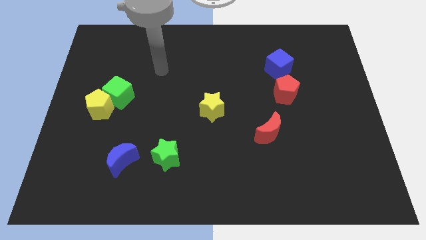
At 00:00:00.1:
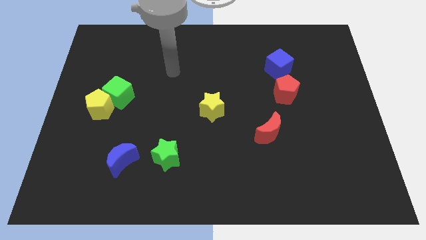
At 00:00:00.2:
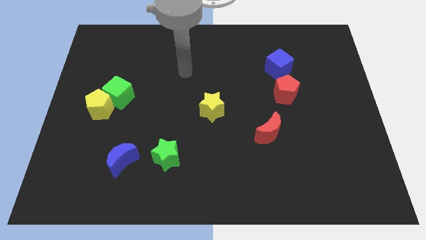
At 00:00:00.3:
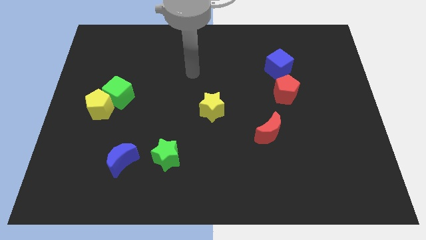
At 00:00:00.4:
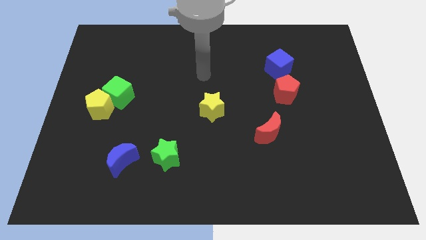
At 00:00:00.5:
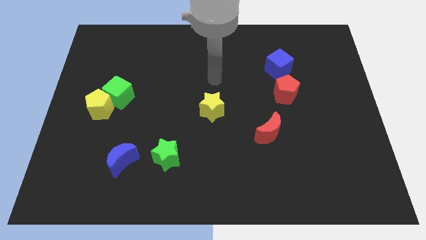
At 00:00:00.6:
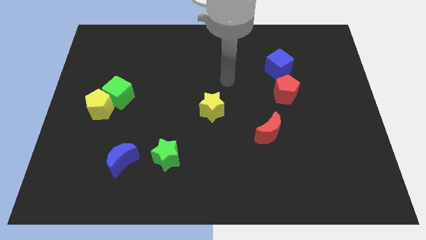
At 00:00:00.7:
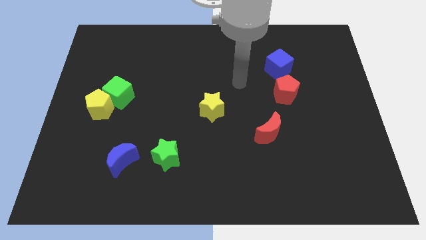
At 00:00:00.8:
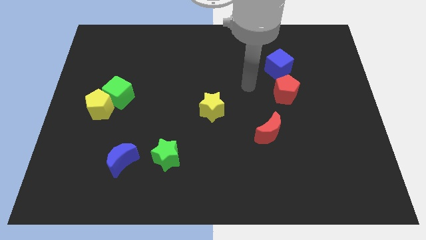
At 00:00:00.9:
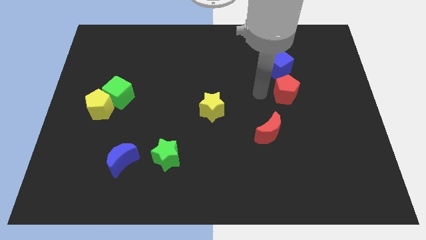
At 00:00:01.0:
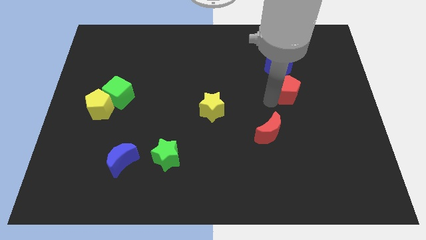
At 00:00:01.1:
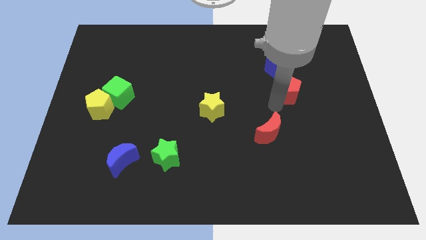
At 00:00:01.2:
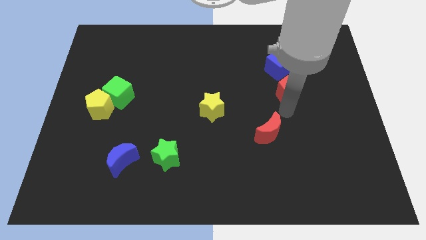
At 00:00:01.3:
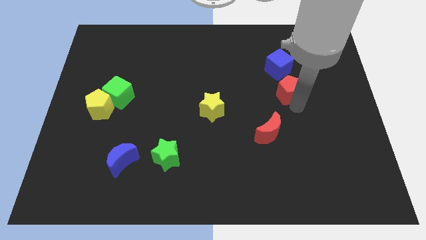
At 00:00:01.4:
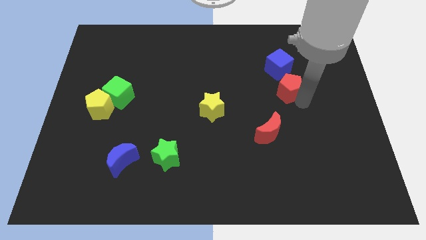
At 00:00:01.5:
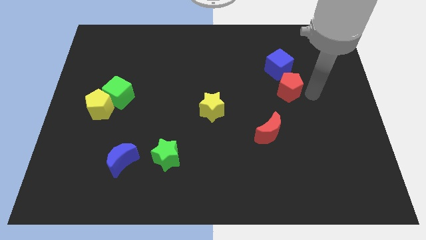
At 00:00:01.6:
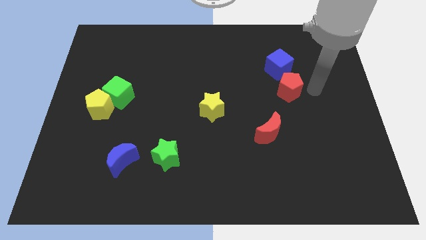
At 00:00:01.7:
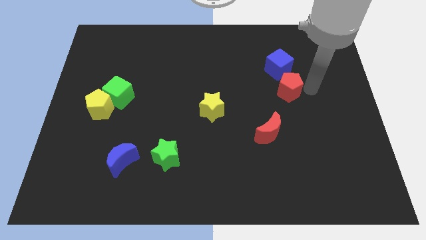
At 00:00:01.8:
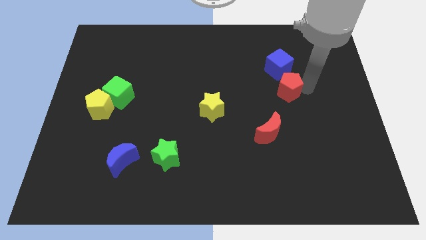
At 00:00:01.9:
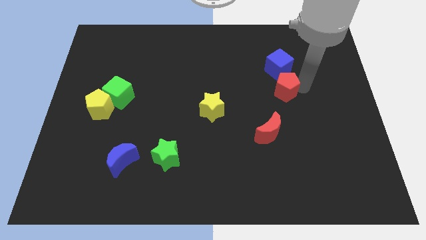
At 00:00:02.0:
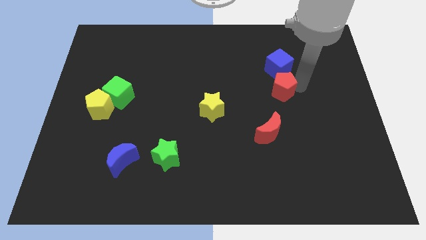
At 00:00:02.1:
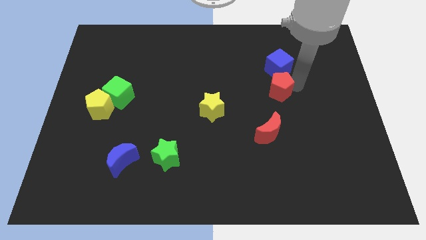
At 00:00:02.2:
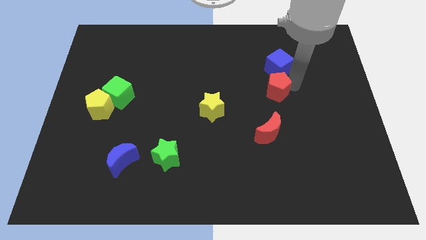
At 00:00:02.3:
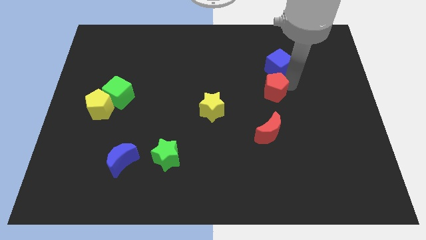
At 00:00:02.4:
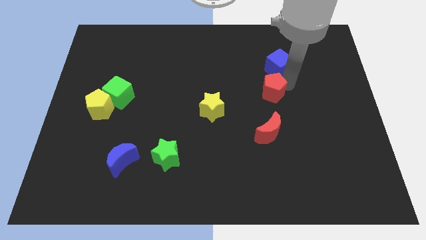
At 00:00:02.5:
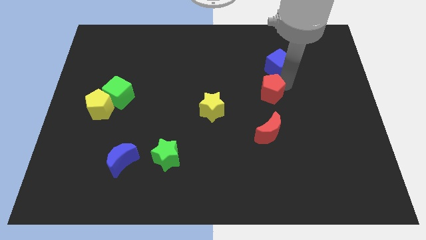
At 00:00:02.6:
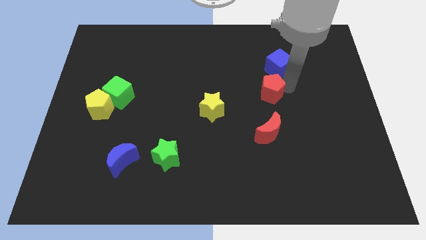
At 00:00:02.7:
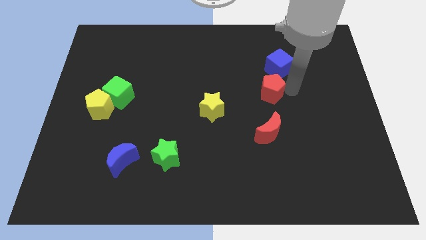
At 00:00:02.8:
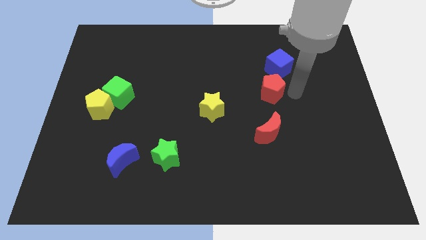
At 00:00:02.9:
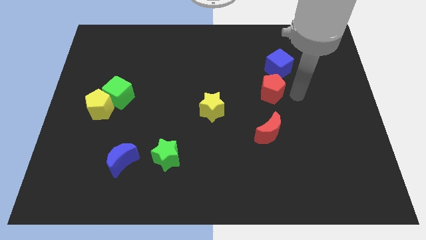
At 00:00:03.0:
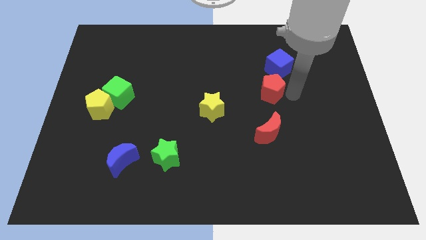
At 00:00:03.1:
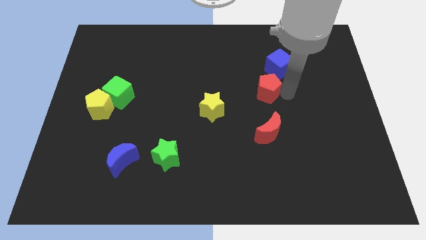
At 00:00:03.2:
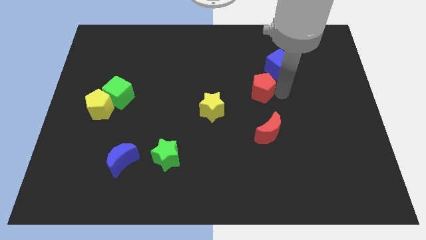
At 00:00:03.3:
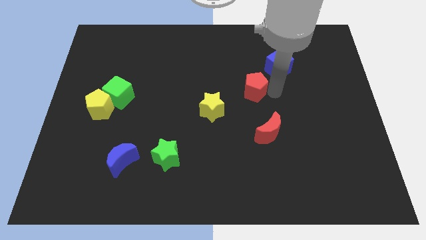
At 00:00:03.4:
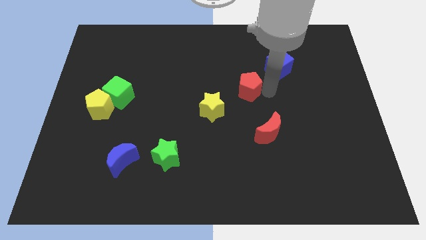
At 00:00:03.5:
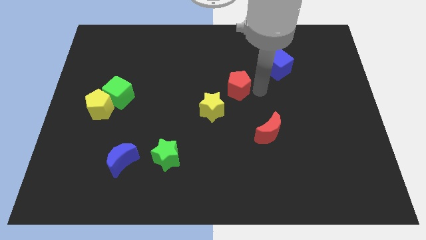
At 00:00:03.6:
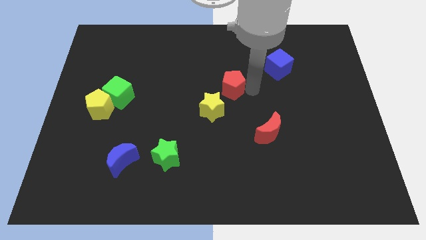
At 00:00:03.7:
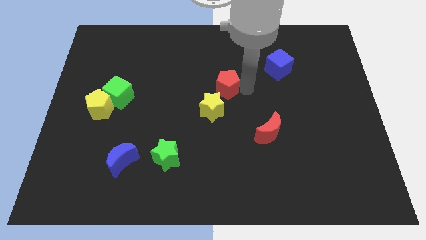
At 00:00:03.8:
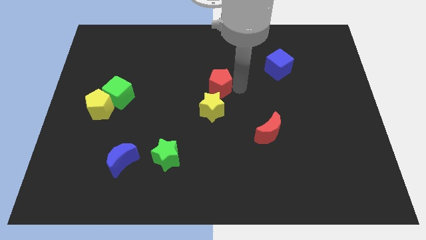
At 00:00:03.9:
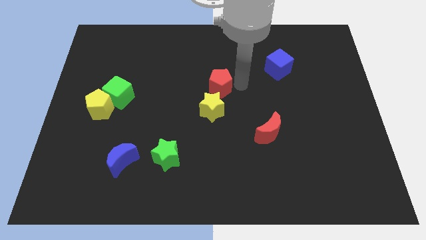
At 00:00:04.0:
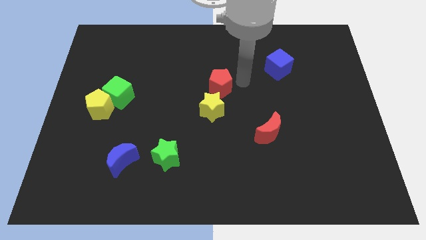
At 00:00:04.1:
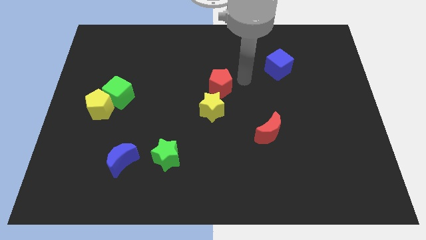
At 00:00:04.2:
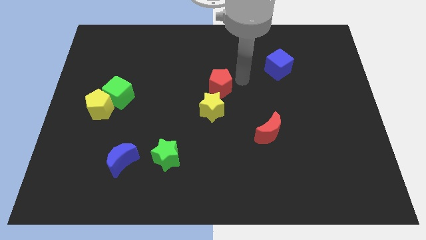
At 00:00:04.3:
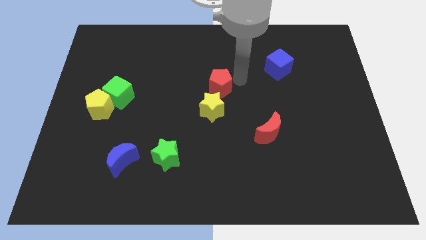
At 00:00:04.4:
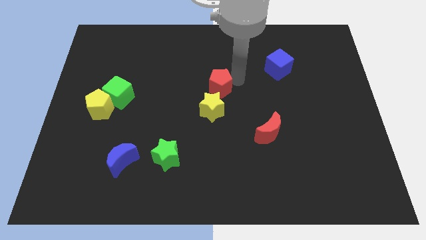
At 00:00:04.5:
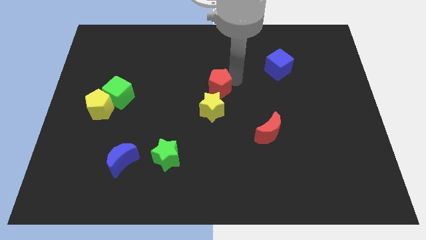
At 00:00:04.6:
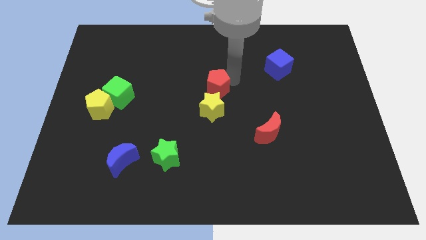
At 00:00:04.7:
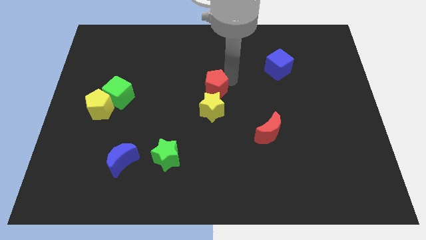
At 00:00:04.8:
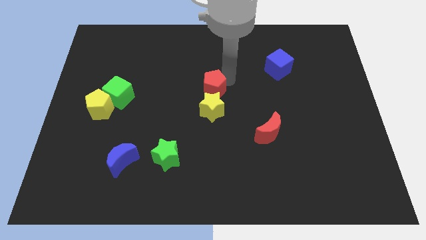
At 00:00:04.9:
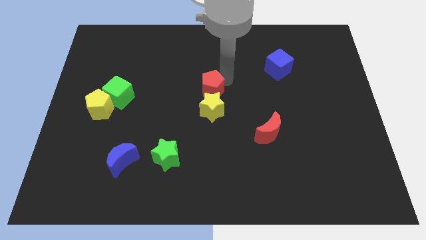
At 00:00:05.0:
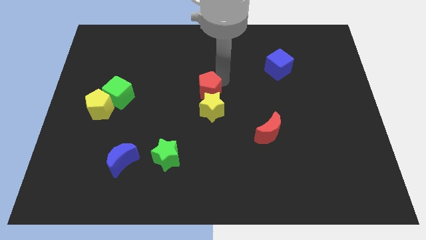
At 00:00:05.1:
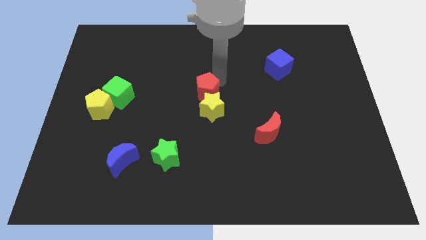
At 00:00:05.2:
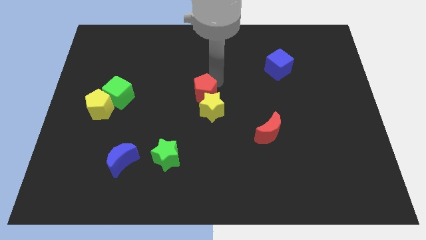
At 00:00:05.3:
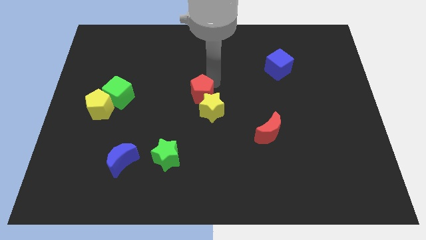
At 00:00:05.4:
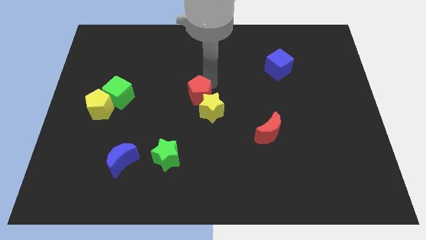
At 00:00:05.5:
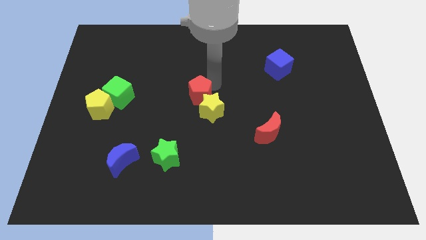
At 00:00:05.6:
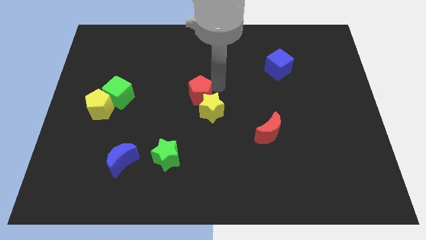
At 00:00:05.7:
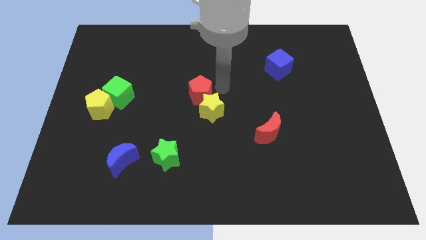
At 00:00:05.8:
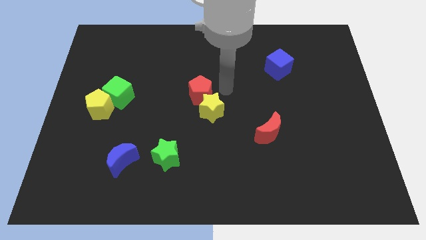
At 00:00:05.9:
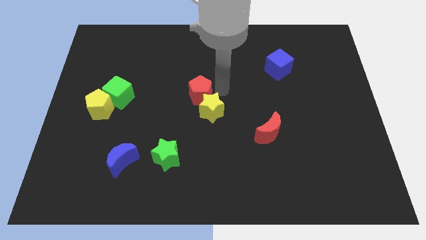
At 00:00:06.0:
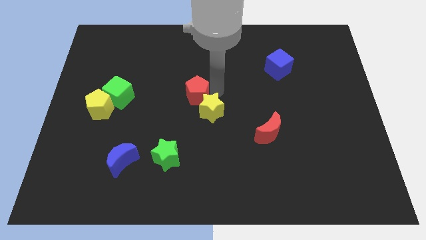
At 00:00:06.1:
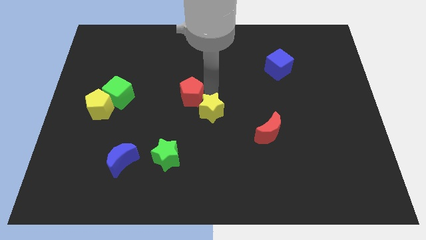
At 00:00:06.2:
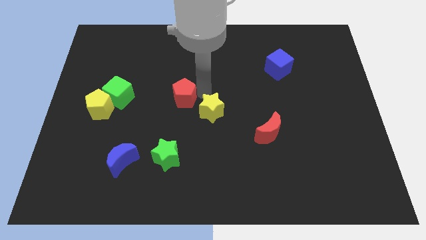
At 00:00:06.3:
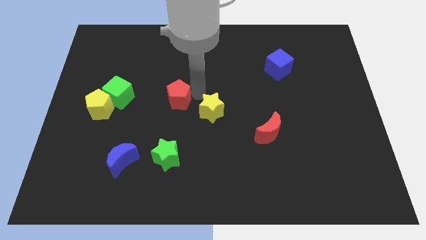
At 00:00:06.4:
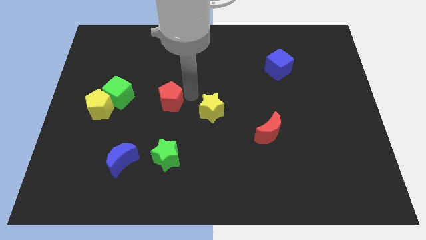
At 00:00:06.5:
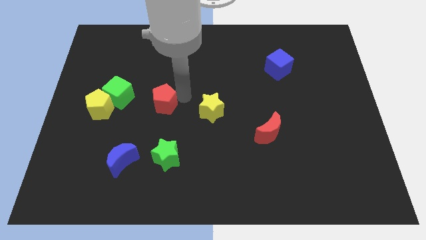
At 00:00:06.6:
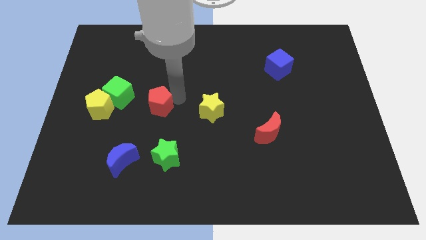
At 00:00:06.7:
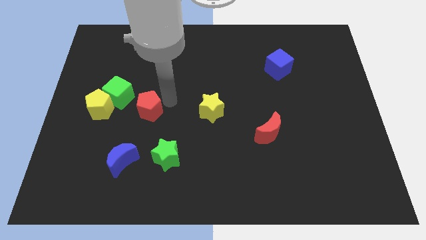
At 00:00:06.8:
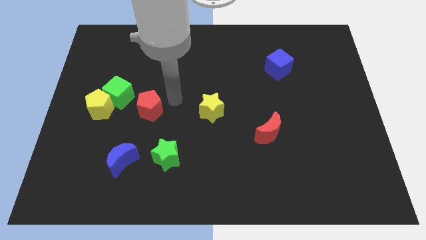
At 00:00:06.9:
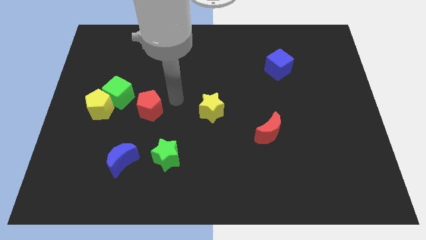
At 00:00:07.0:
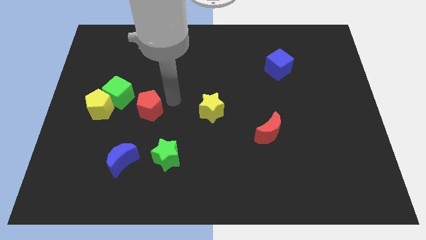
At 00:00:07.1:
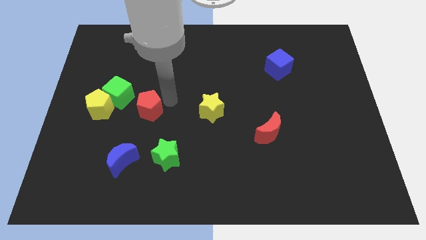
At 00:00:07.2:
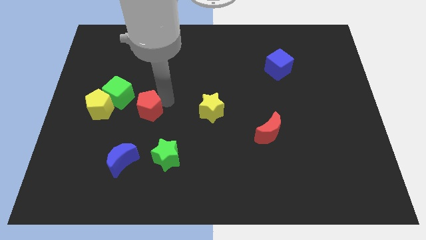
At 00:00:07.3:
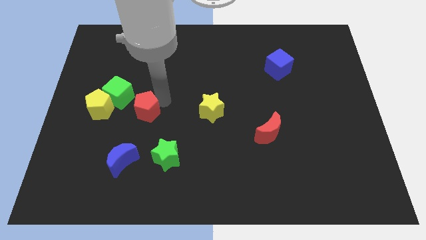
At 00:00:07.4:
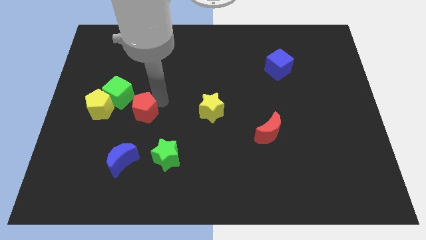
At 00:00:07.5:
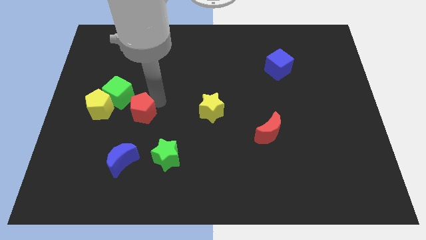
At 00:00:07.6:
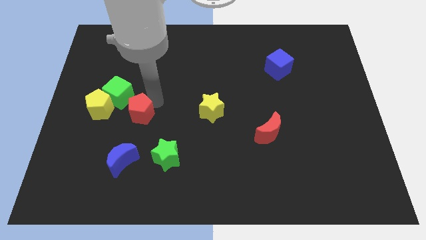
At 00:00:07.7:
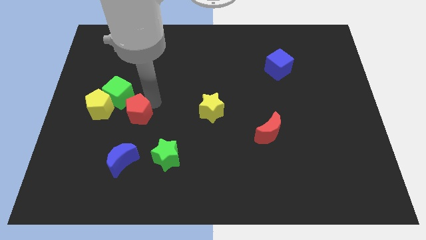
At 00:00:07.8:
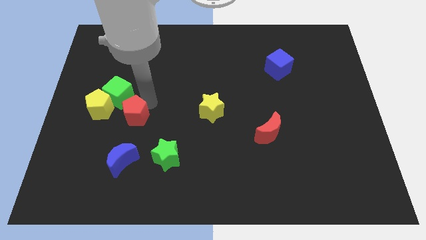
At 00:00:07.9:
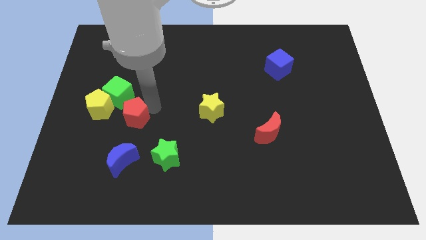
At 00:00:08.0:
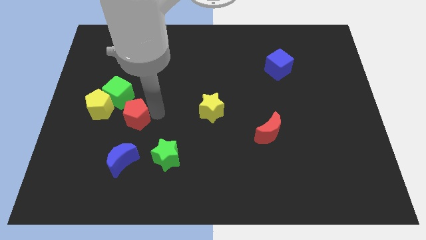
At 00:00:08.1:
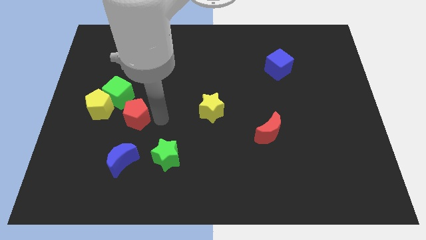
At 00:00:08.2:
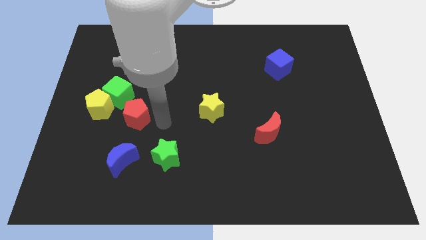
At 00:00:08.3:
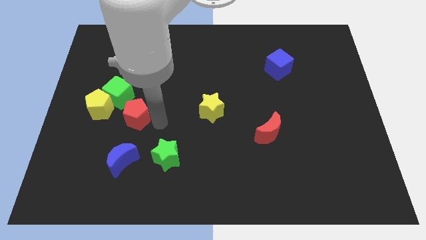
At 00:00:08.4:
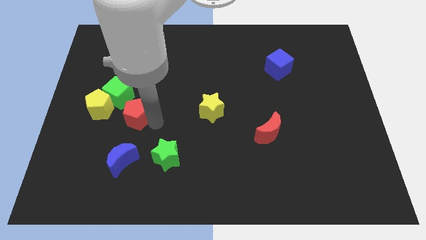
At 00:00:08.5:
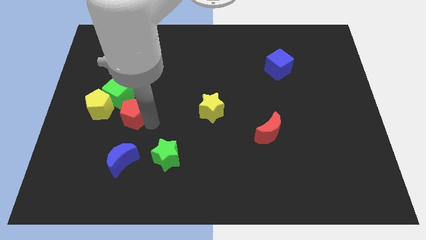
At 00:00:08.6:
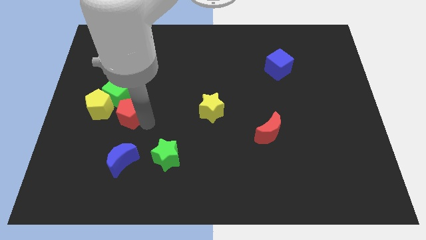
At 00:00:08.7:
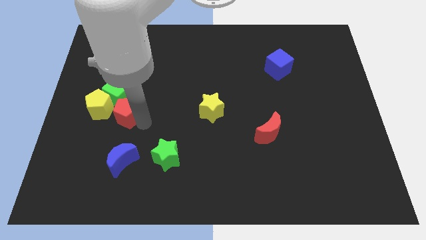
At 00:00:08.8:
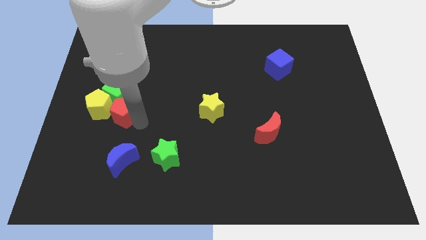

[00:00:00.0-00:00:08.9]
move the red pentagon towards the yellow pentagon
